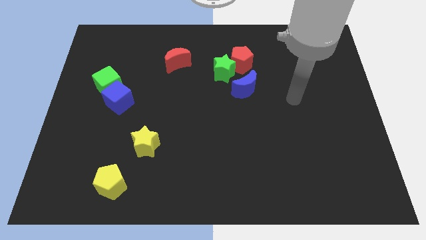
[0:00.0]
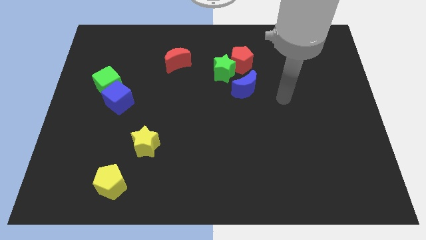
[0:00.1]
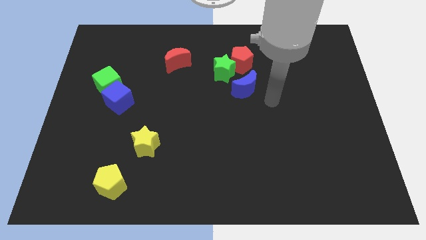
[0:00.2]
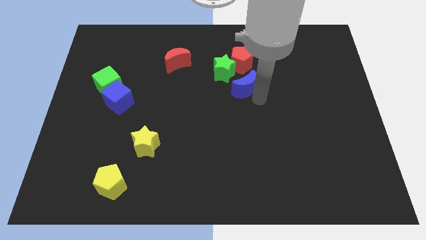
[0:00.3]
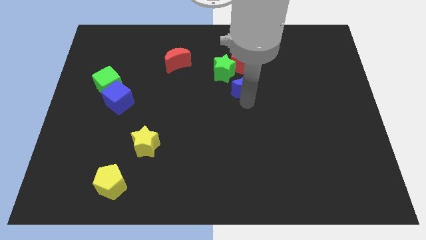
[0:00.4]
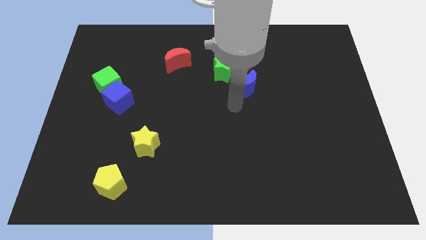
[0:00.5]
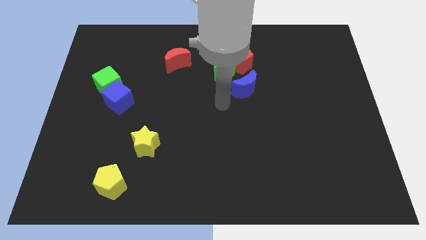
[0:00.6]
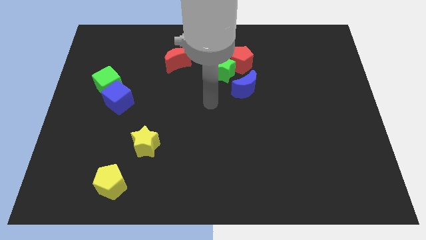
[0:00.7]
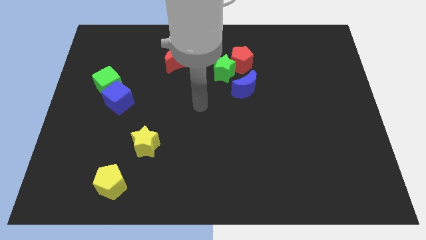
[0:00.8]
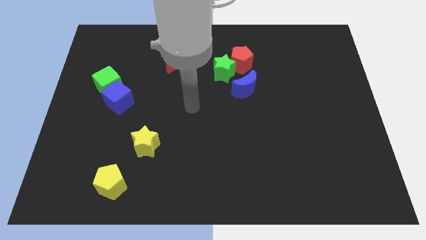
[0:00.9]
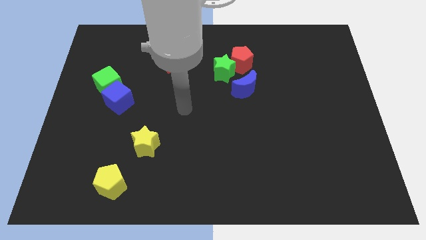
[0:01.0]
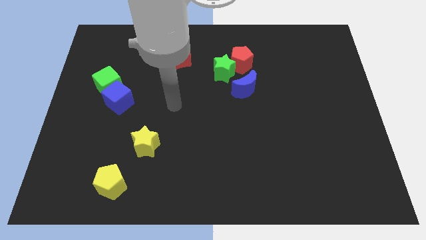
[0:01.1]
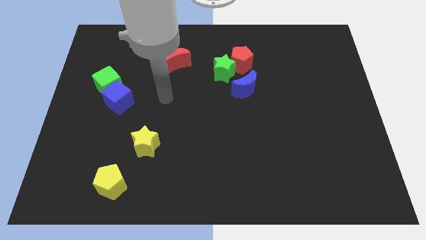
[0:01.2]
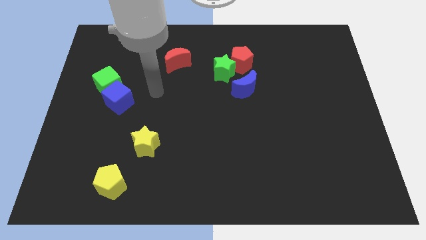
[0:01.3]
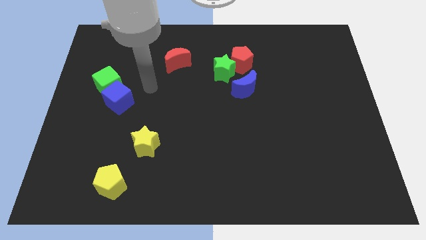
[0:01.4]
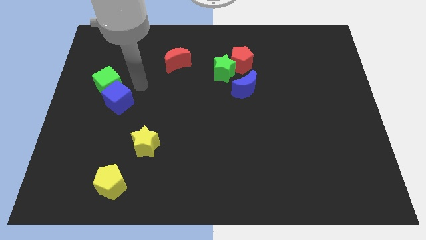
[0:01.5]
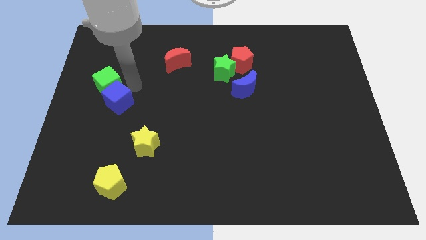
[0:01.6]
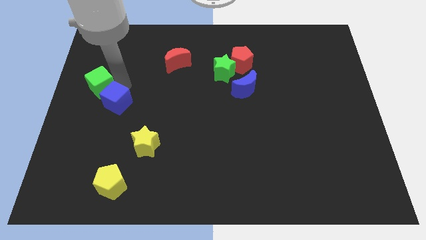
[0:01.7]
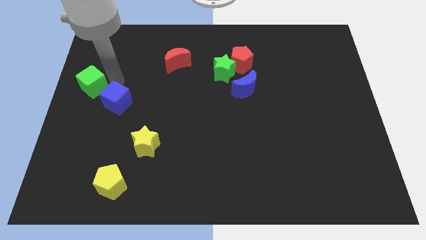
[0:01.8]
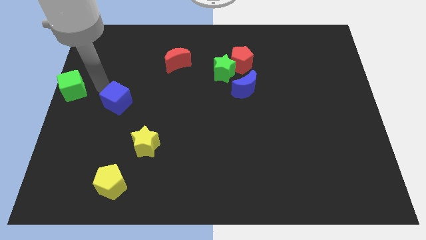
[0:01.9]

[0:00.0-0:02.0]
separate the blue cube from the green cube

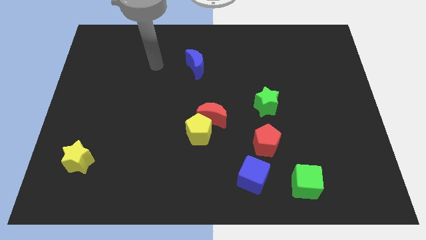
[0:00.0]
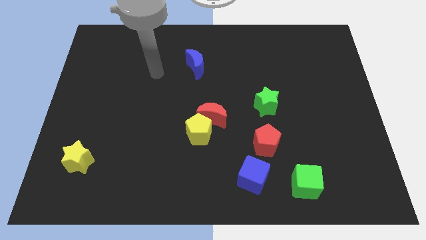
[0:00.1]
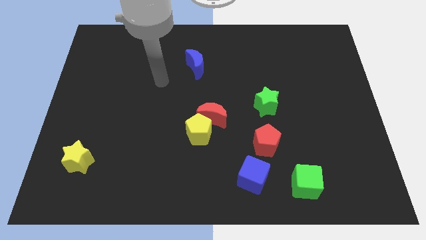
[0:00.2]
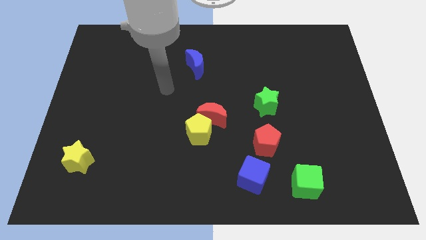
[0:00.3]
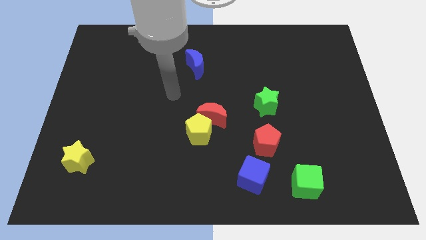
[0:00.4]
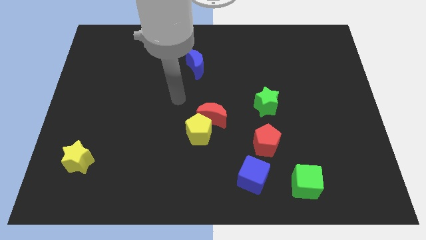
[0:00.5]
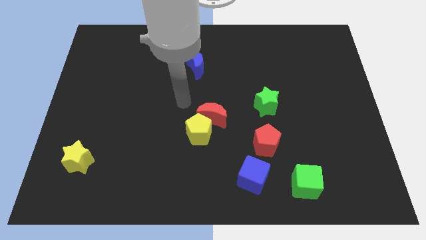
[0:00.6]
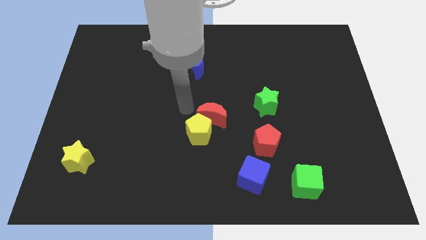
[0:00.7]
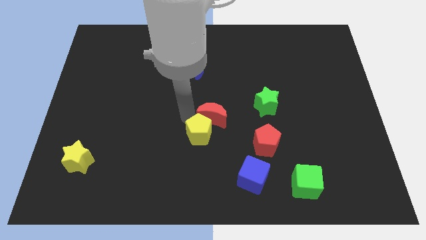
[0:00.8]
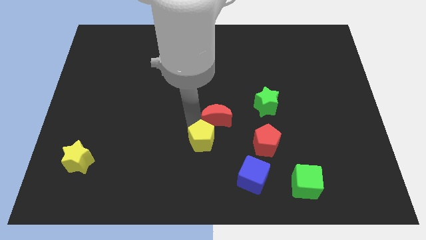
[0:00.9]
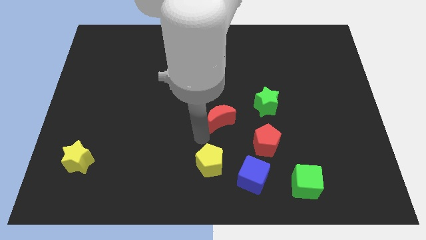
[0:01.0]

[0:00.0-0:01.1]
pull the red moon apart from the yellow pentagon

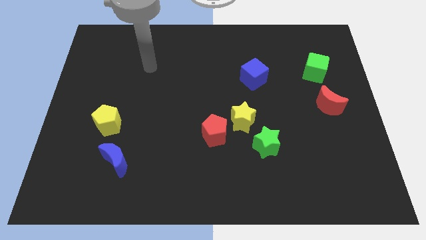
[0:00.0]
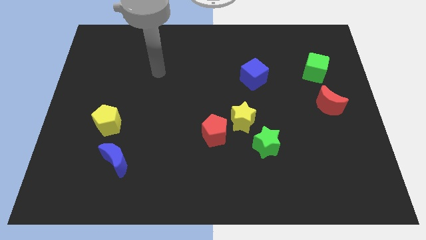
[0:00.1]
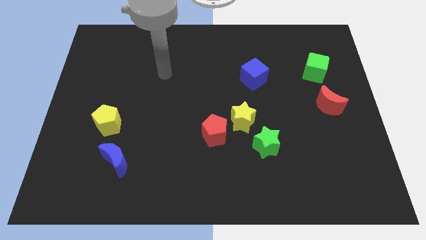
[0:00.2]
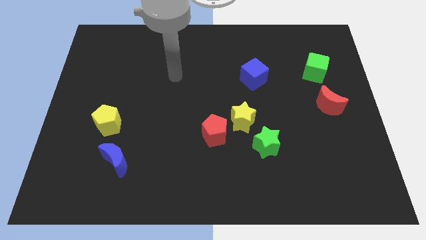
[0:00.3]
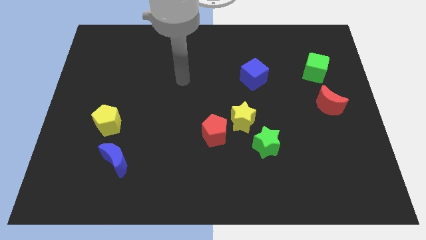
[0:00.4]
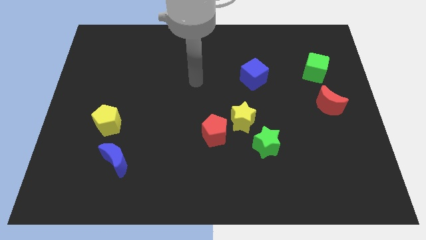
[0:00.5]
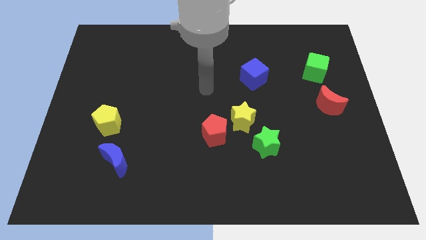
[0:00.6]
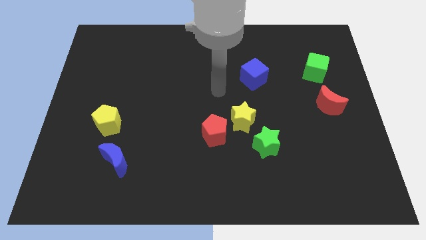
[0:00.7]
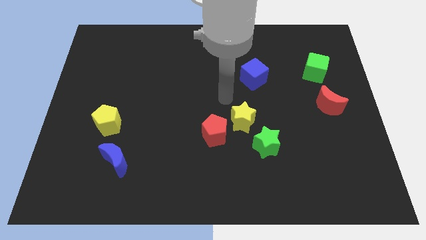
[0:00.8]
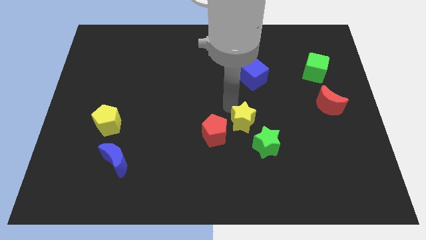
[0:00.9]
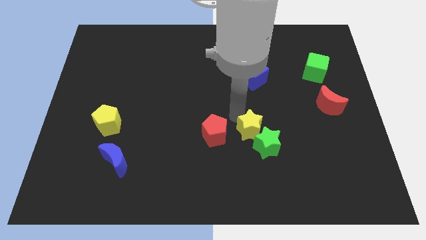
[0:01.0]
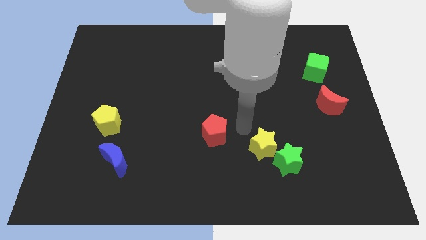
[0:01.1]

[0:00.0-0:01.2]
move the red pentagon away from the yellow star

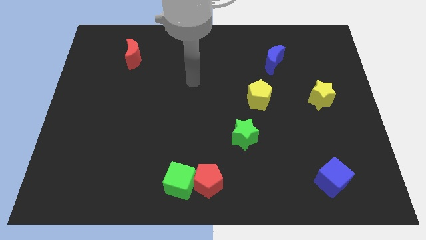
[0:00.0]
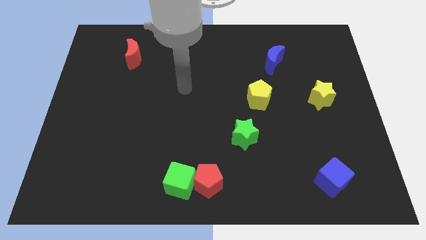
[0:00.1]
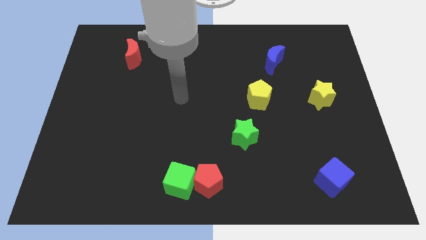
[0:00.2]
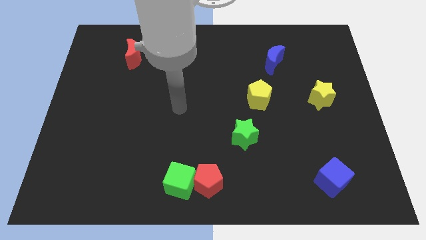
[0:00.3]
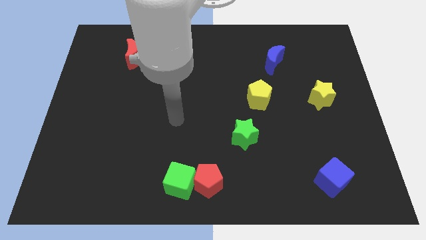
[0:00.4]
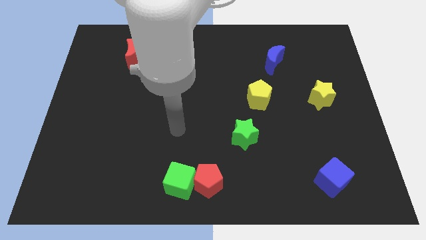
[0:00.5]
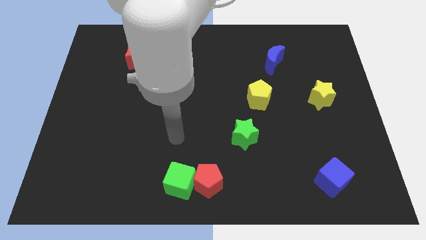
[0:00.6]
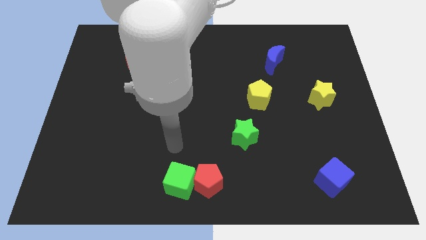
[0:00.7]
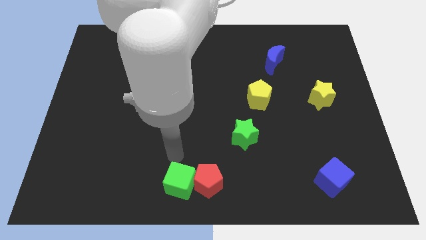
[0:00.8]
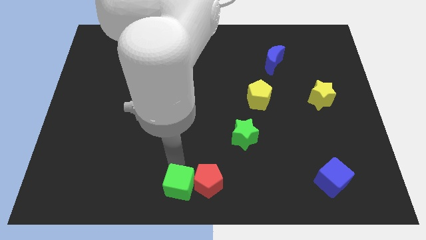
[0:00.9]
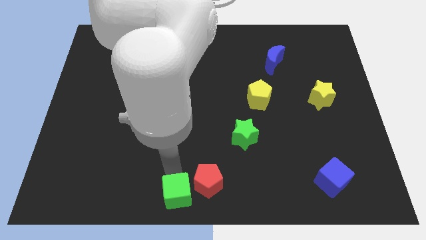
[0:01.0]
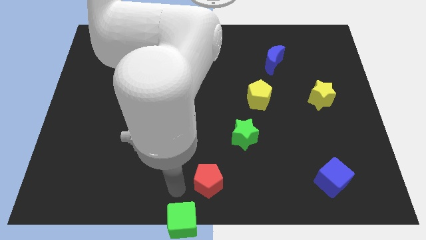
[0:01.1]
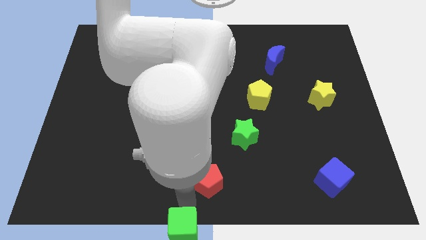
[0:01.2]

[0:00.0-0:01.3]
move the red pentagon away from the green cube

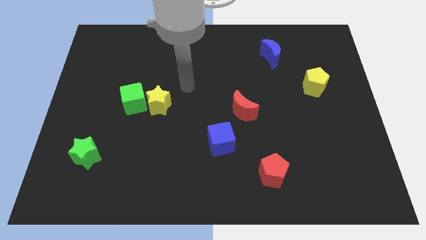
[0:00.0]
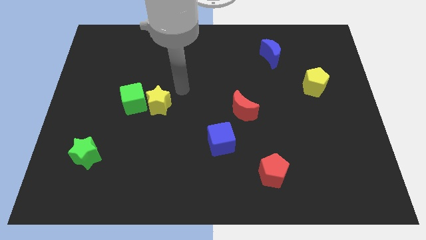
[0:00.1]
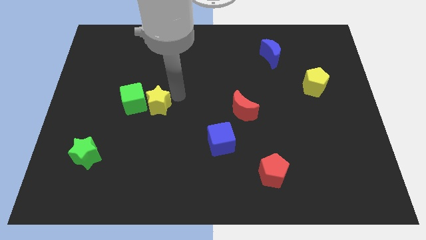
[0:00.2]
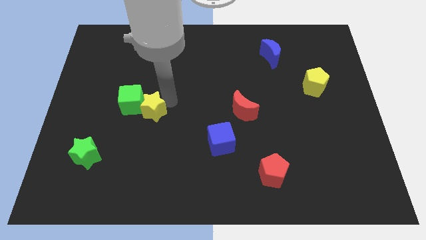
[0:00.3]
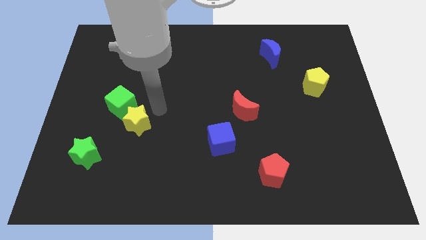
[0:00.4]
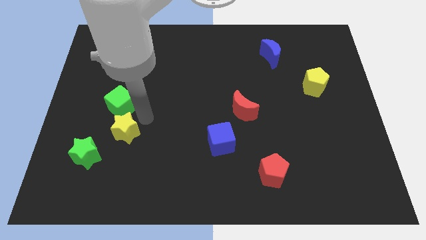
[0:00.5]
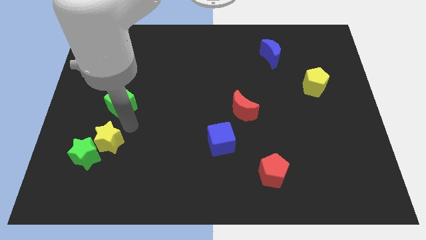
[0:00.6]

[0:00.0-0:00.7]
separate the green cube from the yellow star

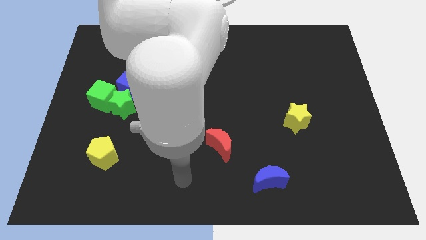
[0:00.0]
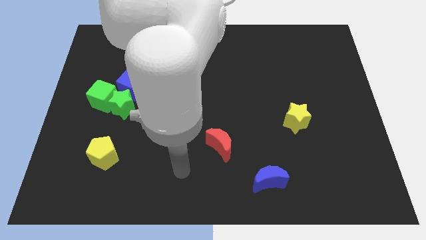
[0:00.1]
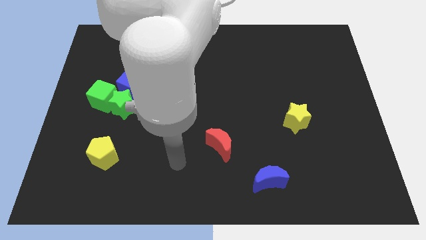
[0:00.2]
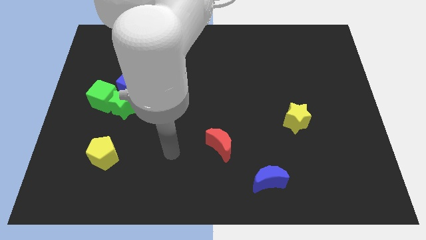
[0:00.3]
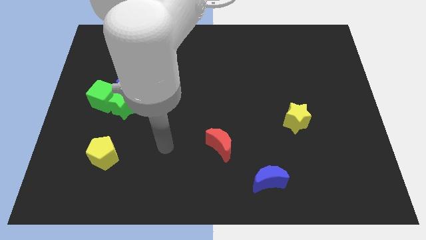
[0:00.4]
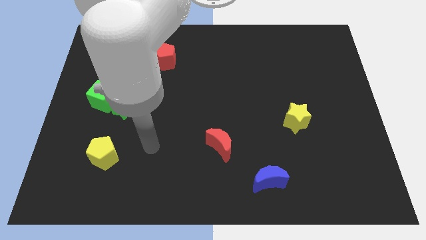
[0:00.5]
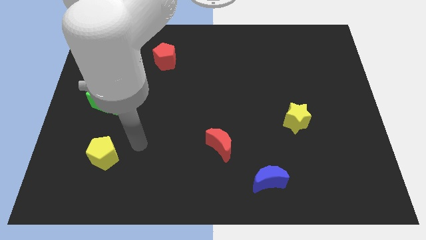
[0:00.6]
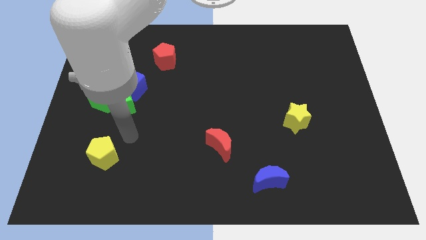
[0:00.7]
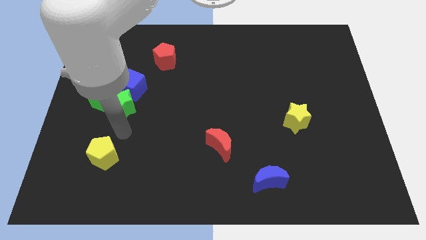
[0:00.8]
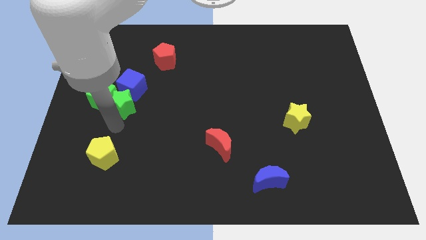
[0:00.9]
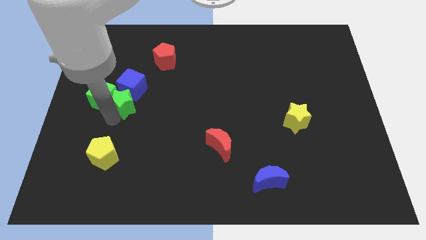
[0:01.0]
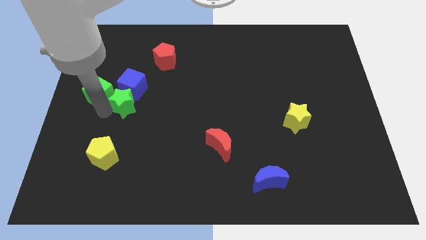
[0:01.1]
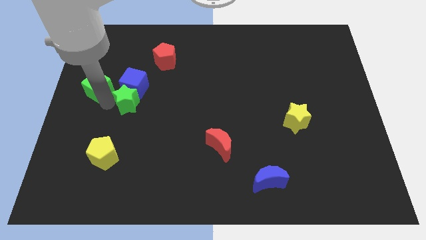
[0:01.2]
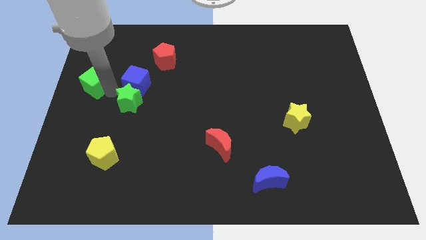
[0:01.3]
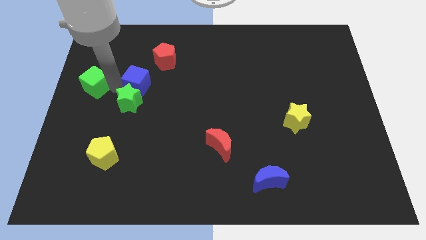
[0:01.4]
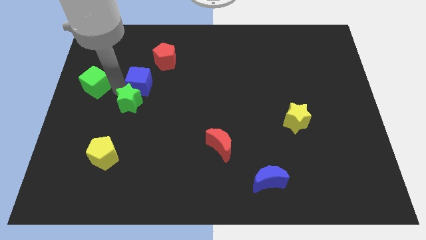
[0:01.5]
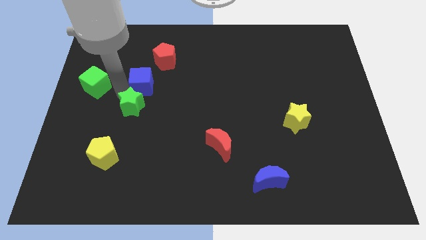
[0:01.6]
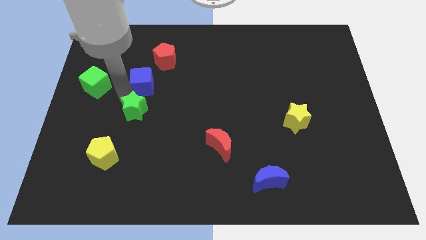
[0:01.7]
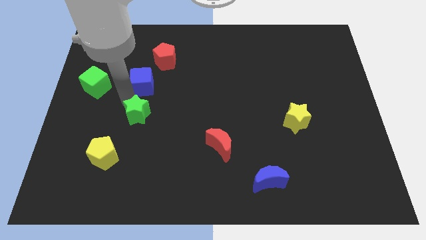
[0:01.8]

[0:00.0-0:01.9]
pull the green star apart from the green cube and blue cube

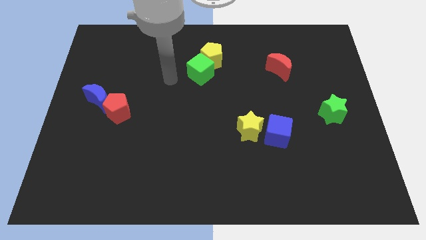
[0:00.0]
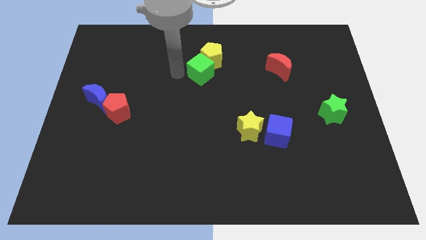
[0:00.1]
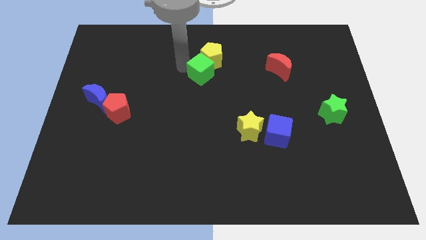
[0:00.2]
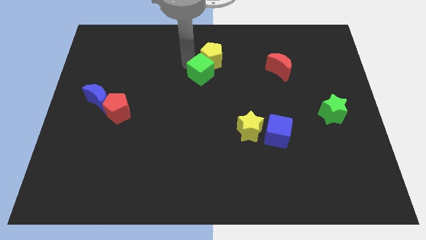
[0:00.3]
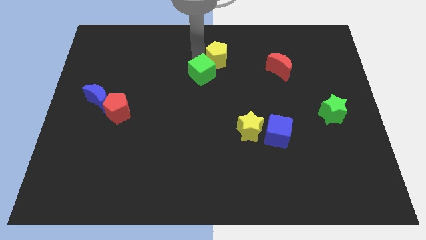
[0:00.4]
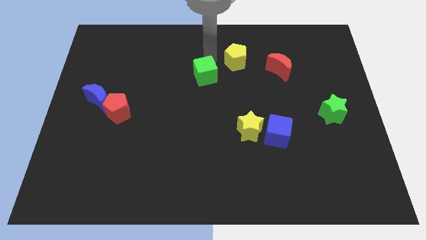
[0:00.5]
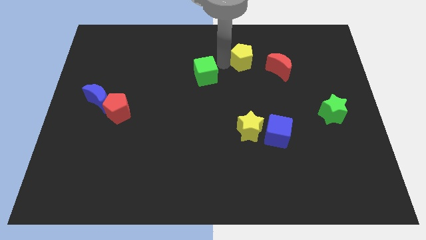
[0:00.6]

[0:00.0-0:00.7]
move the green cube away from the yellow pentagon

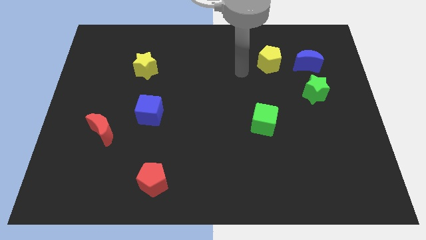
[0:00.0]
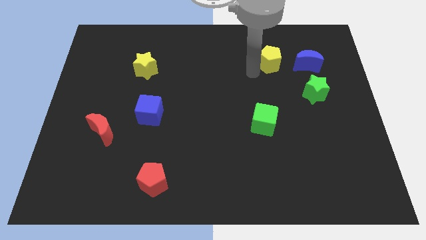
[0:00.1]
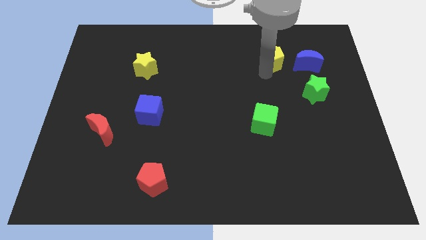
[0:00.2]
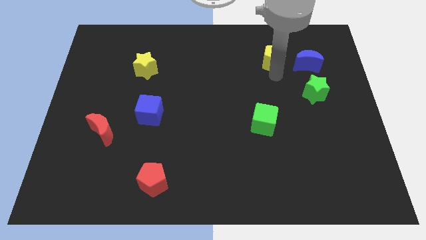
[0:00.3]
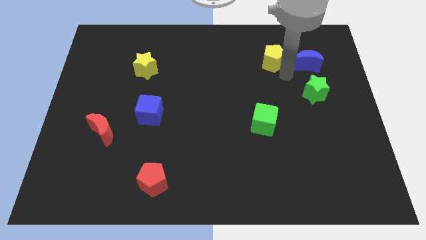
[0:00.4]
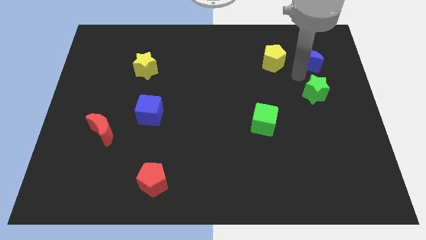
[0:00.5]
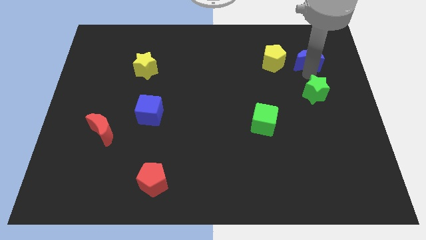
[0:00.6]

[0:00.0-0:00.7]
separate the green star from the blue moon
